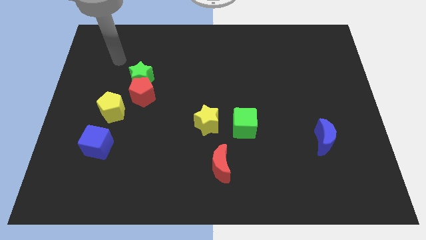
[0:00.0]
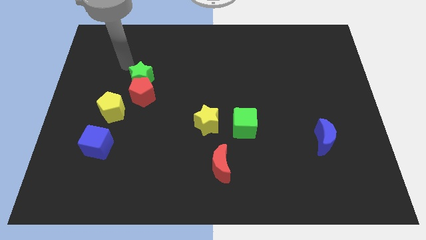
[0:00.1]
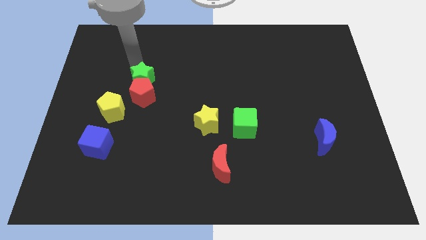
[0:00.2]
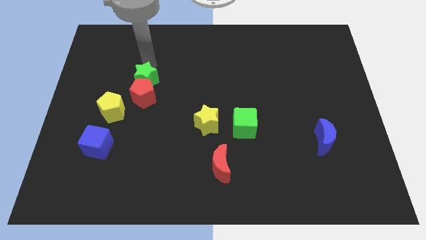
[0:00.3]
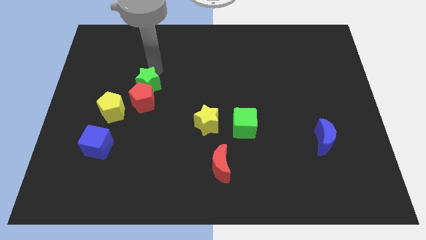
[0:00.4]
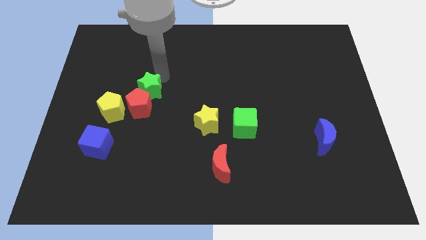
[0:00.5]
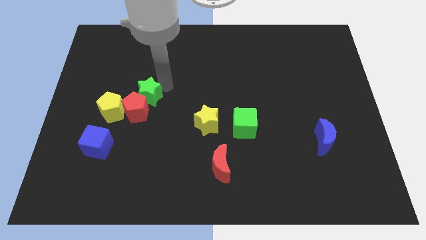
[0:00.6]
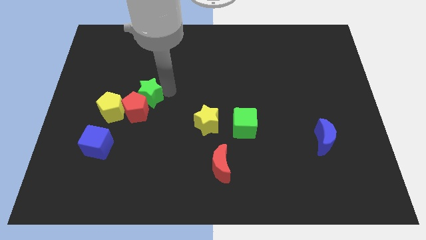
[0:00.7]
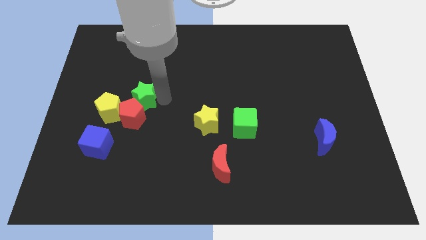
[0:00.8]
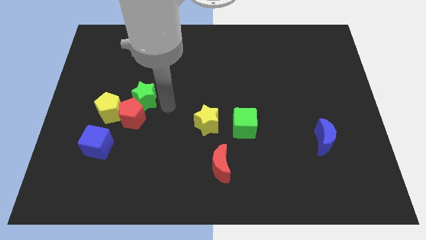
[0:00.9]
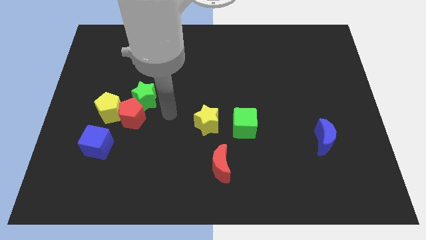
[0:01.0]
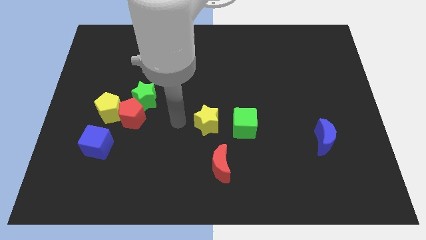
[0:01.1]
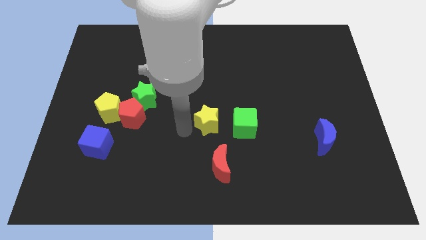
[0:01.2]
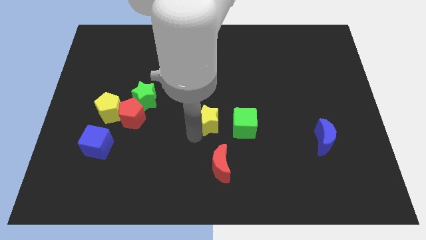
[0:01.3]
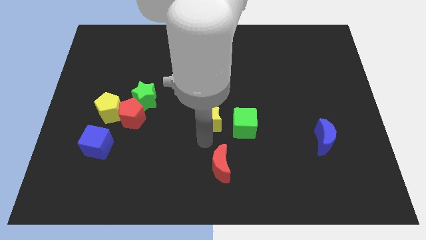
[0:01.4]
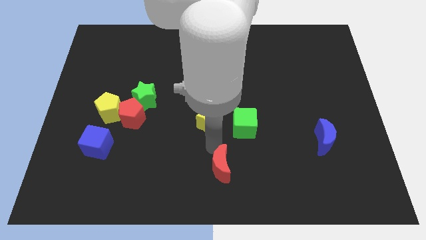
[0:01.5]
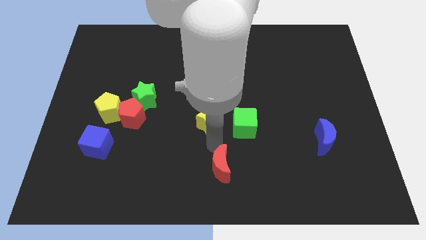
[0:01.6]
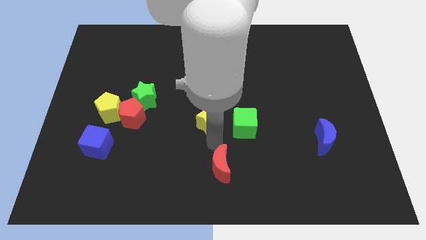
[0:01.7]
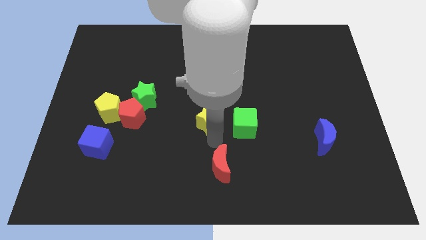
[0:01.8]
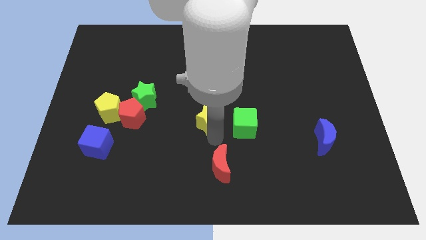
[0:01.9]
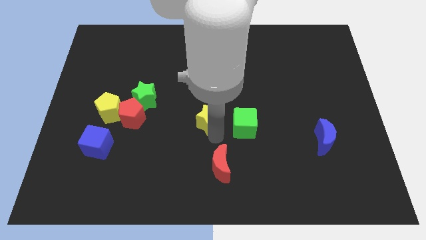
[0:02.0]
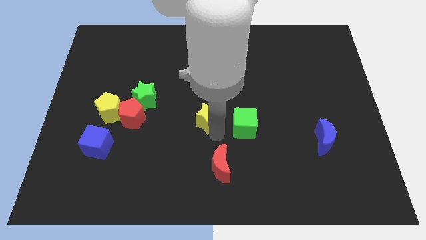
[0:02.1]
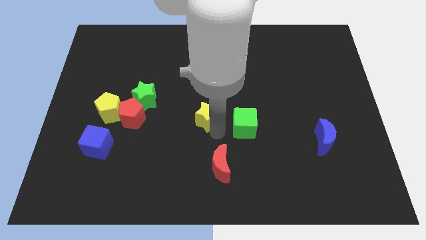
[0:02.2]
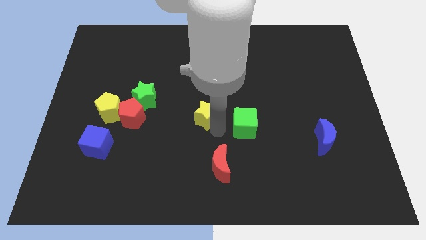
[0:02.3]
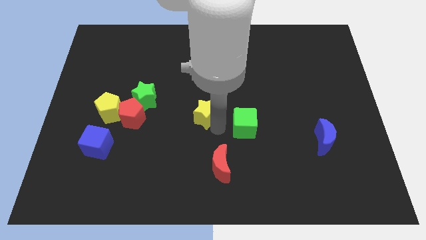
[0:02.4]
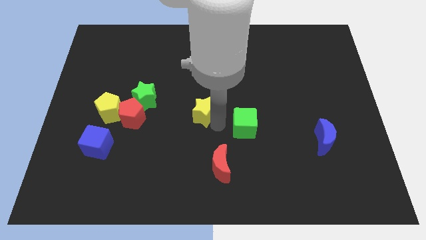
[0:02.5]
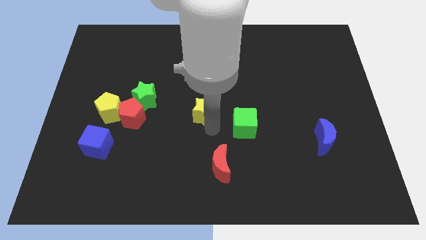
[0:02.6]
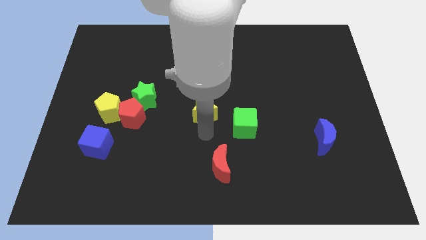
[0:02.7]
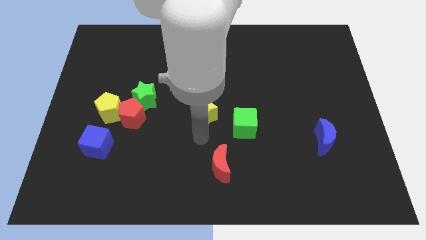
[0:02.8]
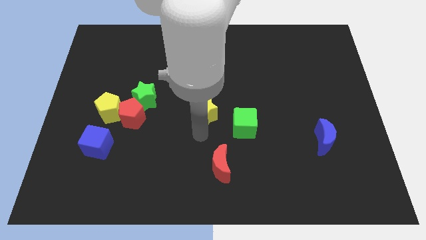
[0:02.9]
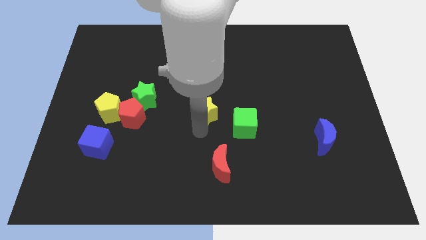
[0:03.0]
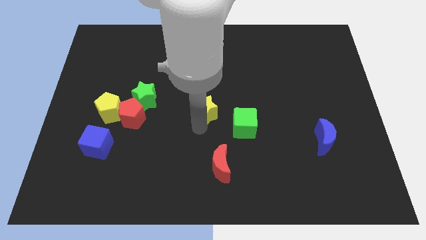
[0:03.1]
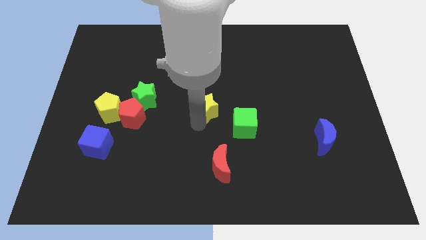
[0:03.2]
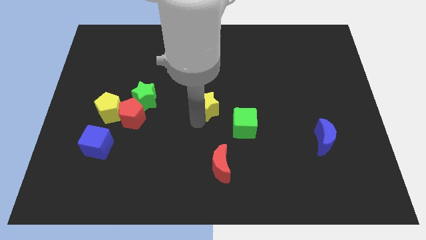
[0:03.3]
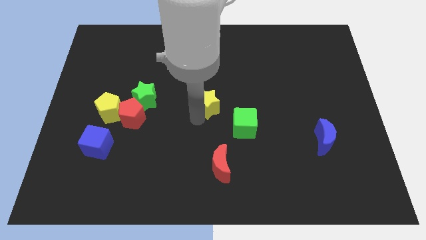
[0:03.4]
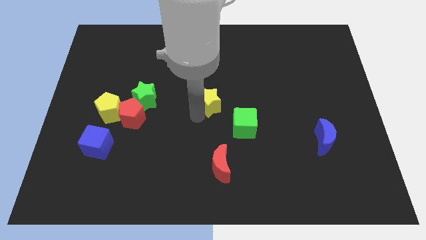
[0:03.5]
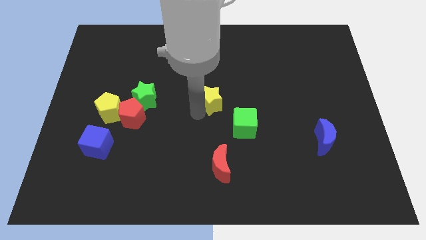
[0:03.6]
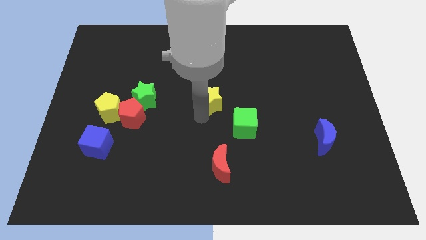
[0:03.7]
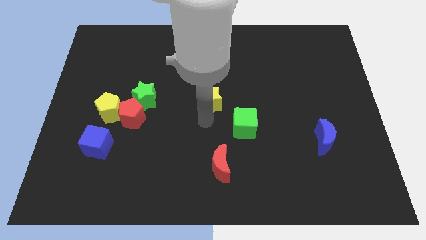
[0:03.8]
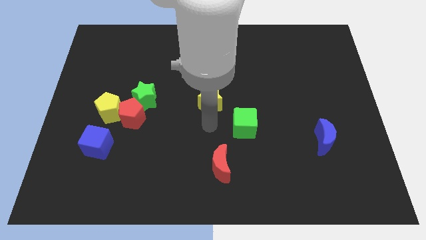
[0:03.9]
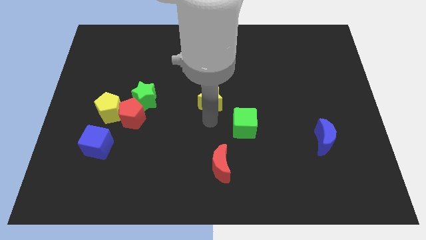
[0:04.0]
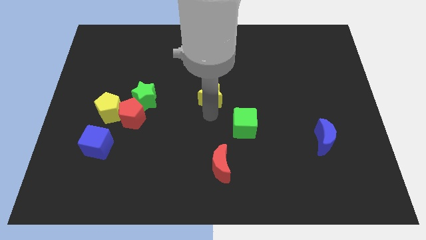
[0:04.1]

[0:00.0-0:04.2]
slightly move the yellow star up

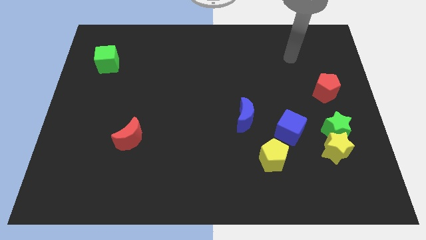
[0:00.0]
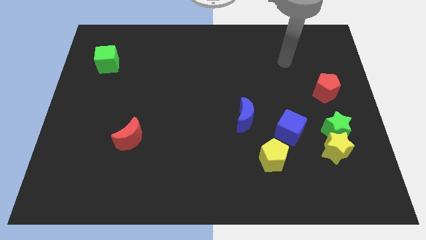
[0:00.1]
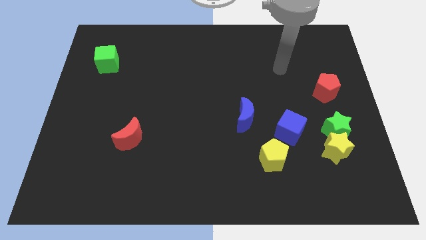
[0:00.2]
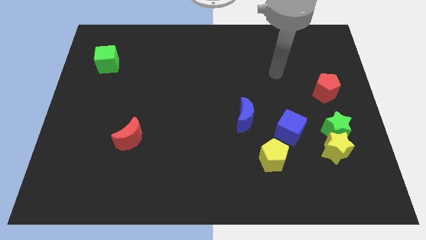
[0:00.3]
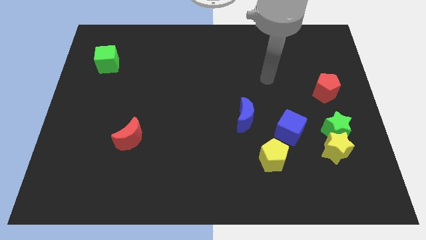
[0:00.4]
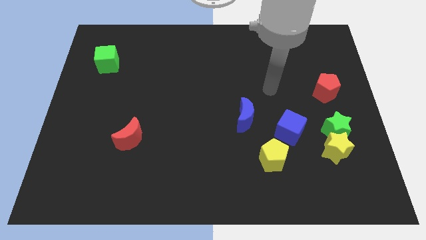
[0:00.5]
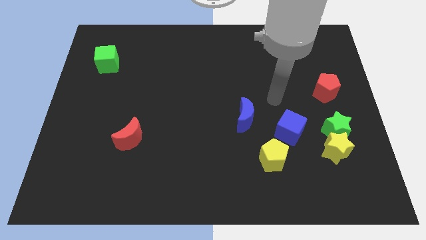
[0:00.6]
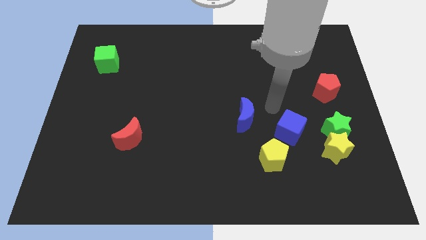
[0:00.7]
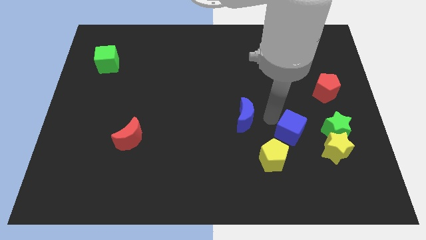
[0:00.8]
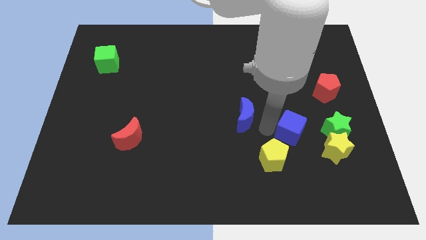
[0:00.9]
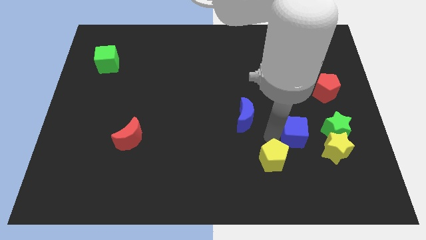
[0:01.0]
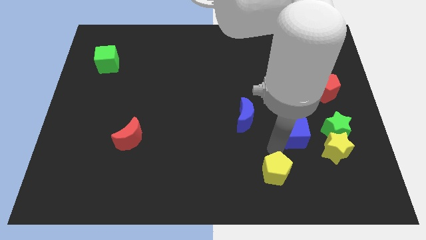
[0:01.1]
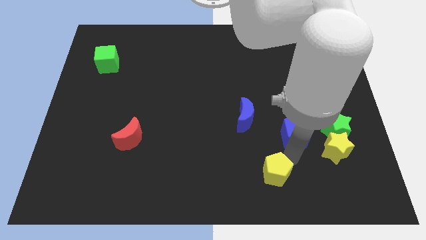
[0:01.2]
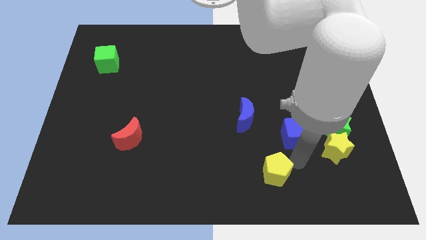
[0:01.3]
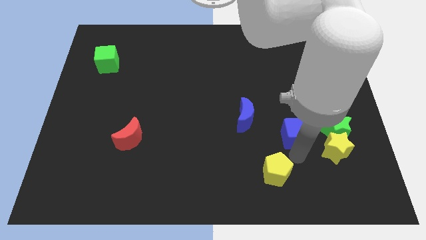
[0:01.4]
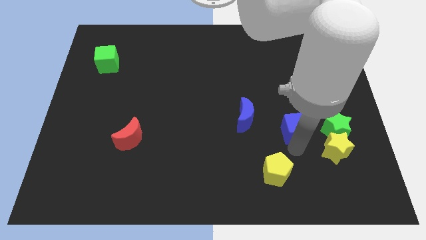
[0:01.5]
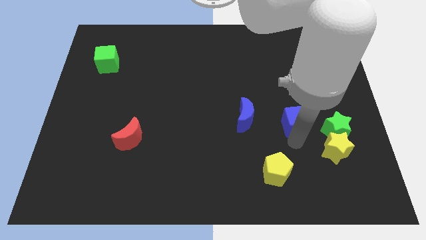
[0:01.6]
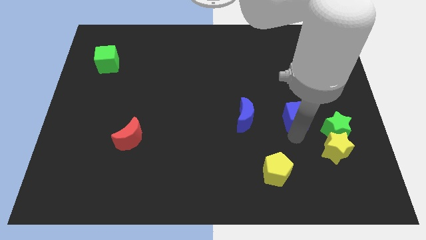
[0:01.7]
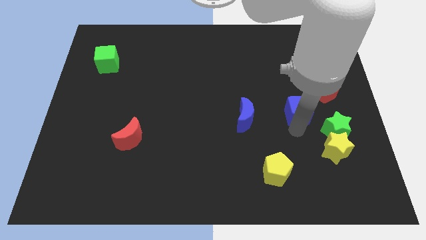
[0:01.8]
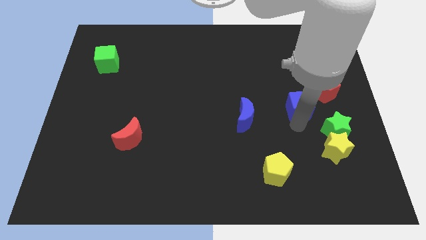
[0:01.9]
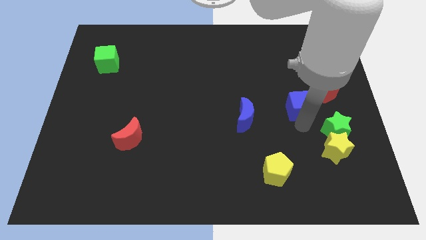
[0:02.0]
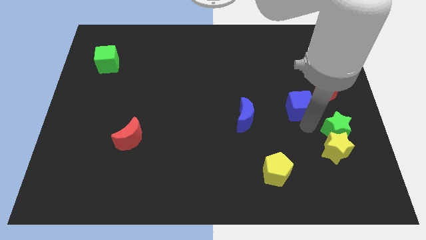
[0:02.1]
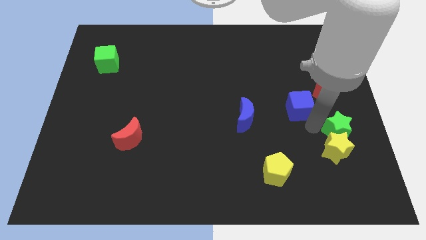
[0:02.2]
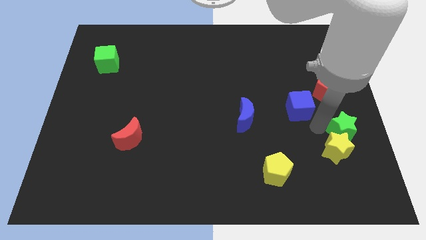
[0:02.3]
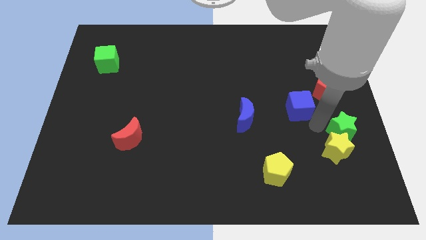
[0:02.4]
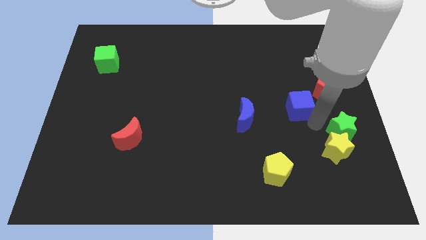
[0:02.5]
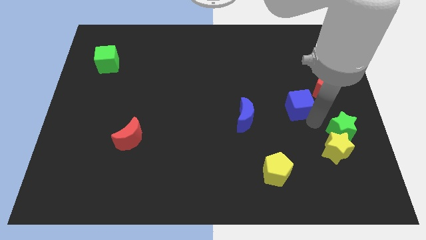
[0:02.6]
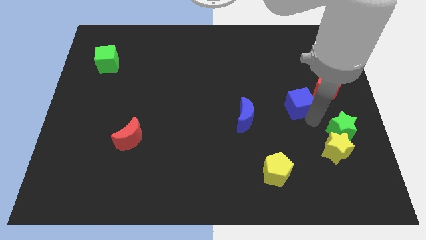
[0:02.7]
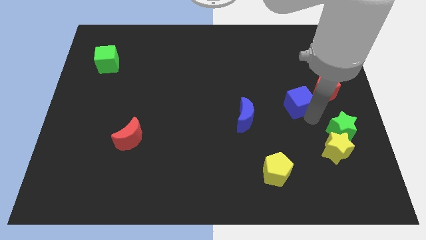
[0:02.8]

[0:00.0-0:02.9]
slightly slide the blue cube up

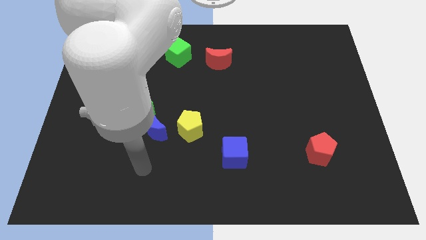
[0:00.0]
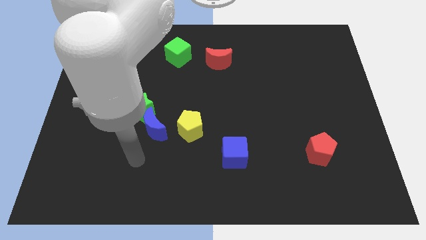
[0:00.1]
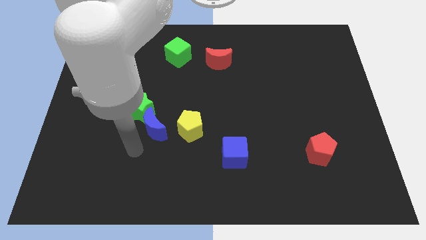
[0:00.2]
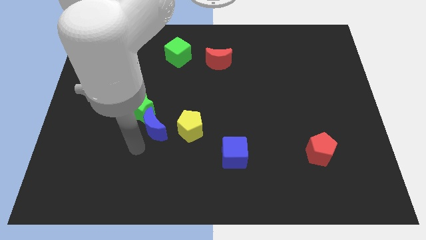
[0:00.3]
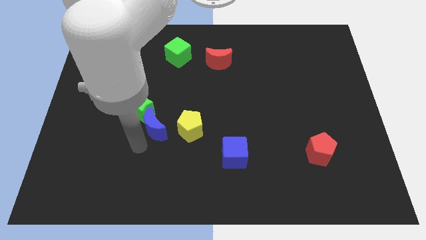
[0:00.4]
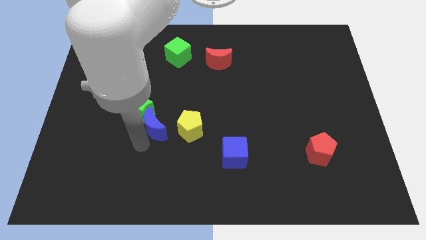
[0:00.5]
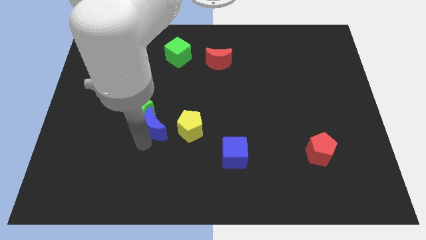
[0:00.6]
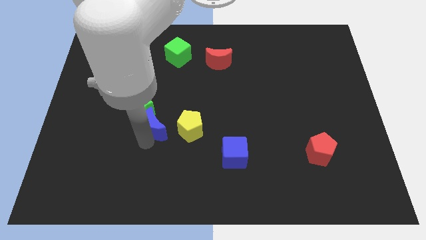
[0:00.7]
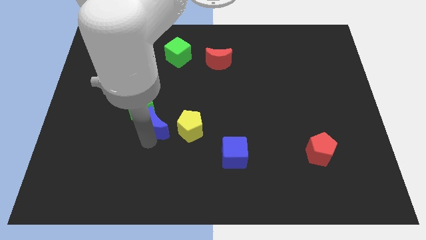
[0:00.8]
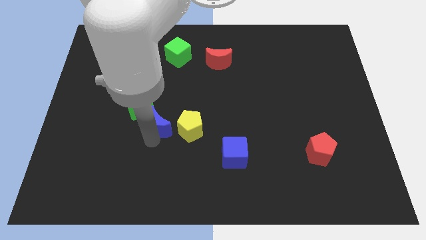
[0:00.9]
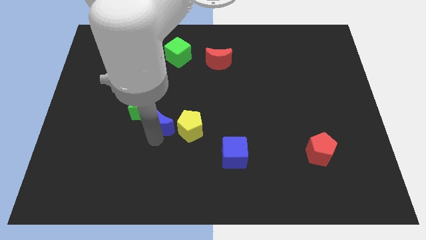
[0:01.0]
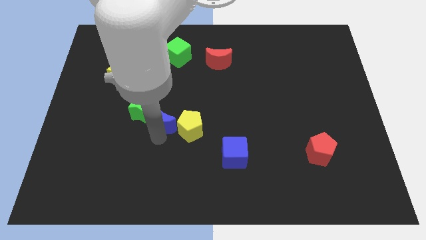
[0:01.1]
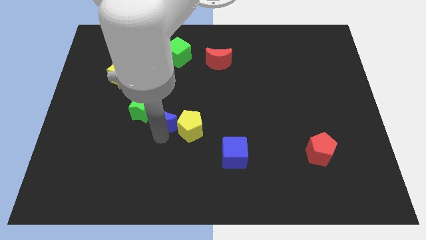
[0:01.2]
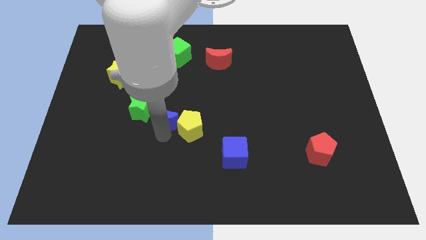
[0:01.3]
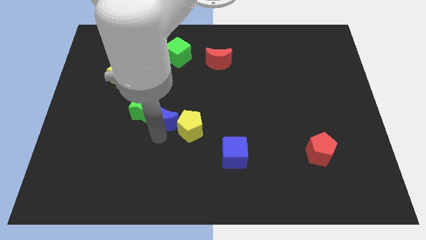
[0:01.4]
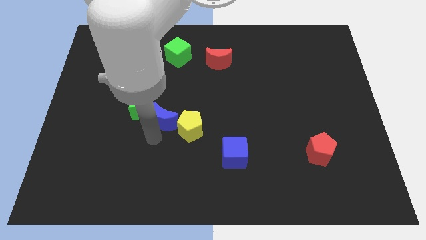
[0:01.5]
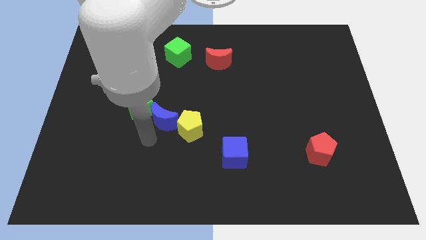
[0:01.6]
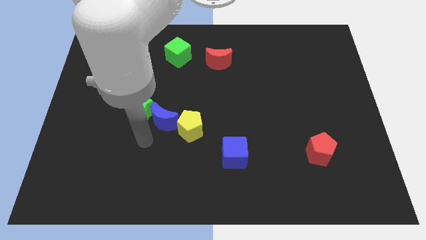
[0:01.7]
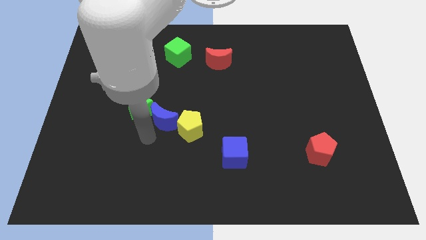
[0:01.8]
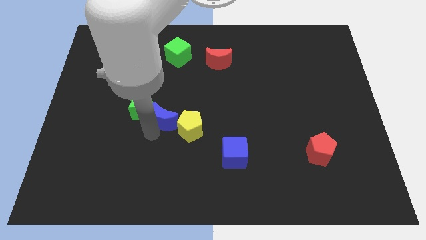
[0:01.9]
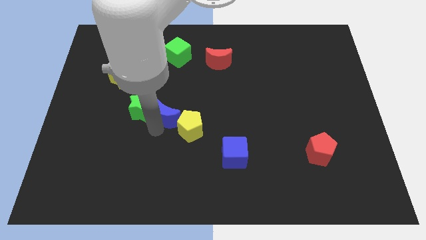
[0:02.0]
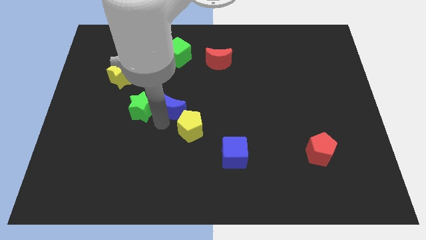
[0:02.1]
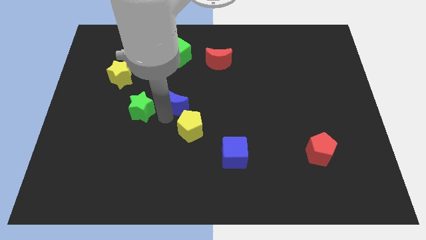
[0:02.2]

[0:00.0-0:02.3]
slightly move the blue moon diagonally up and to the right
